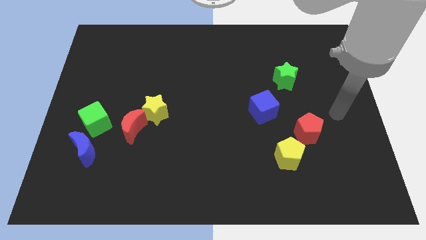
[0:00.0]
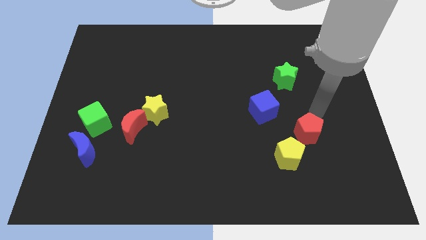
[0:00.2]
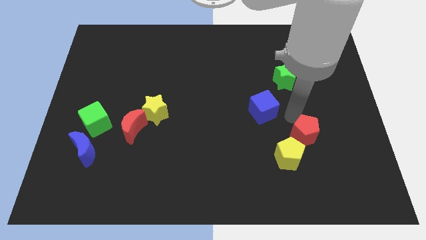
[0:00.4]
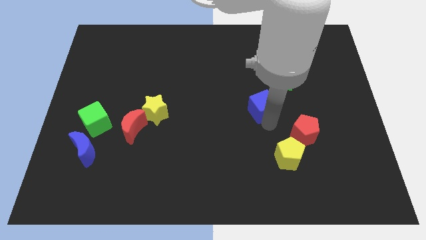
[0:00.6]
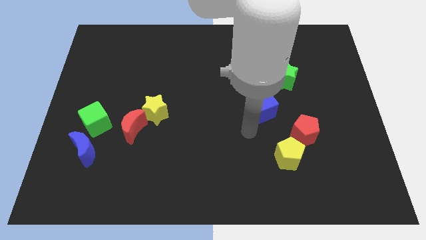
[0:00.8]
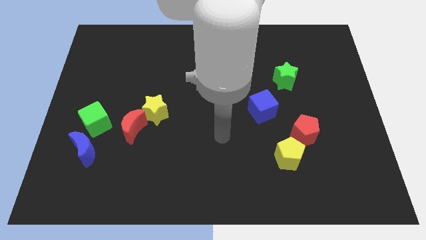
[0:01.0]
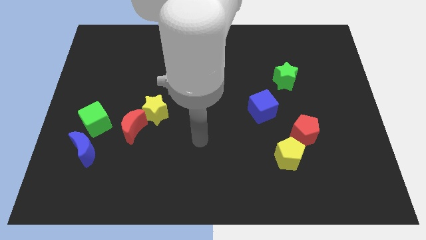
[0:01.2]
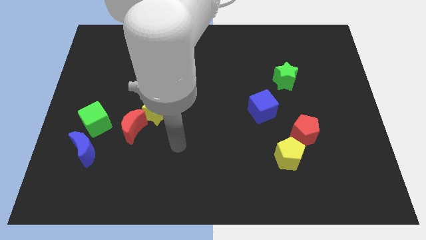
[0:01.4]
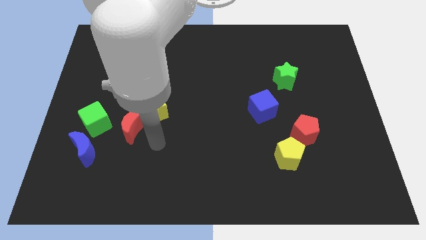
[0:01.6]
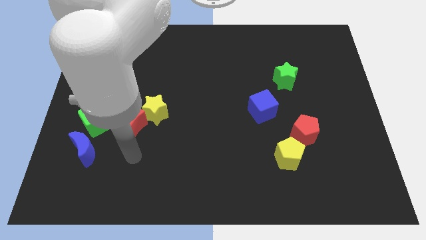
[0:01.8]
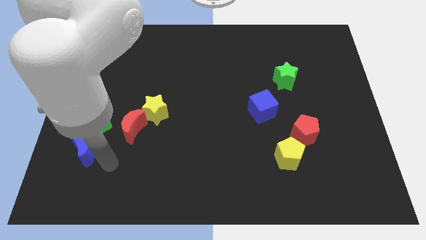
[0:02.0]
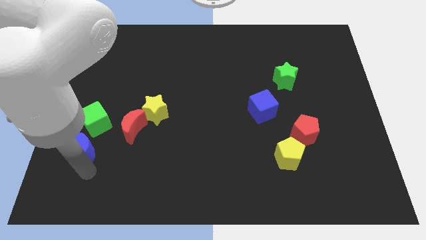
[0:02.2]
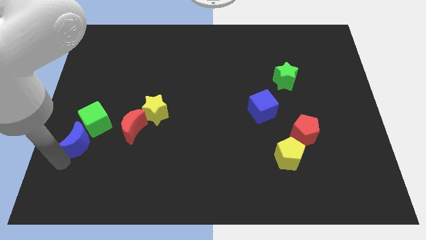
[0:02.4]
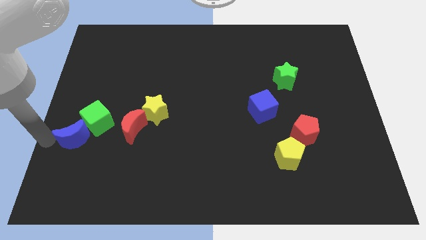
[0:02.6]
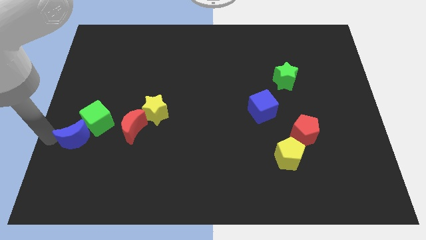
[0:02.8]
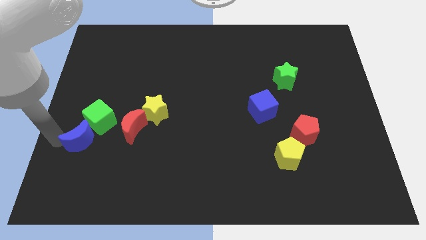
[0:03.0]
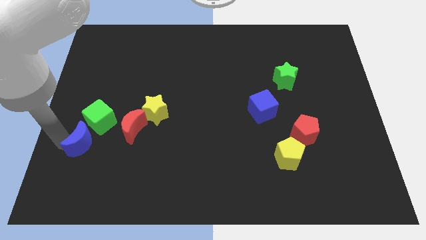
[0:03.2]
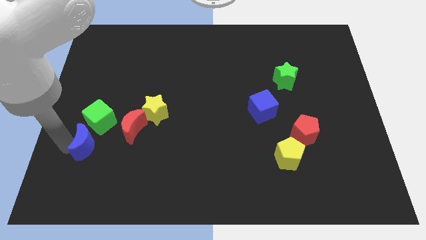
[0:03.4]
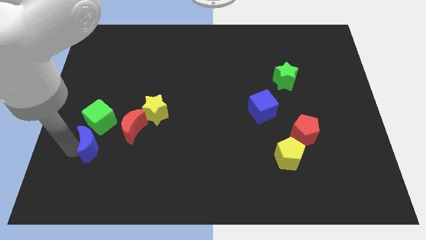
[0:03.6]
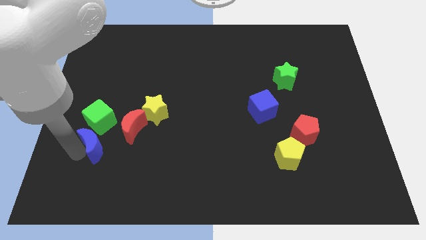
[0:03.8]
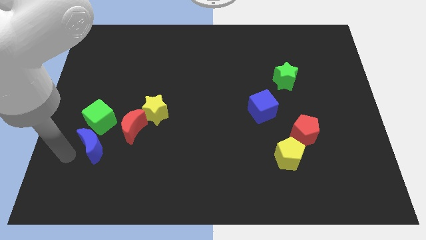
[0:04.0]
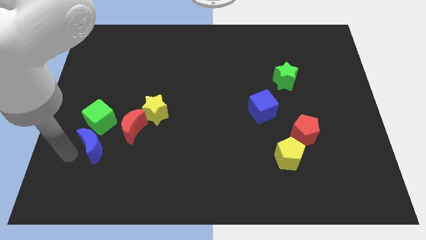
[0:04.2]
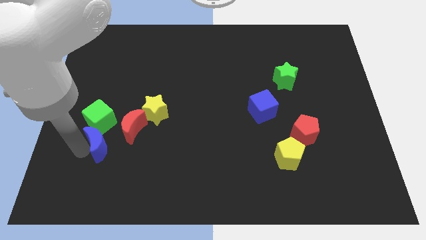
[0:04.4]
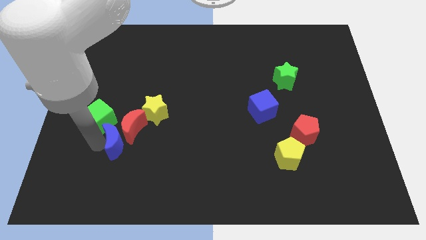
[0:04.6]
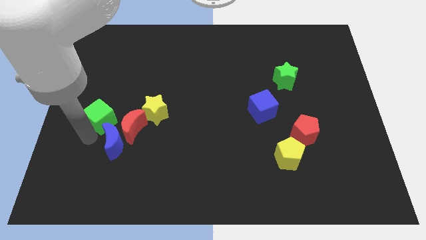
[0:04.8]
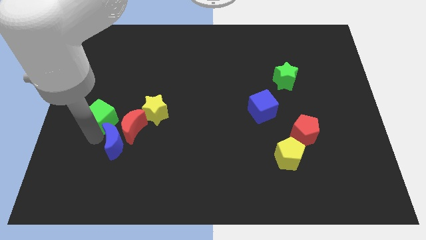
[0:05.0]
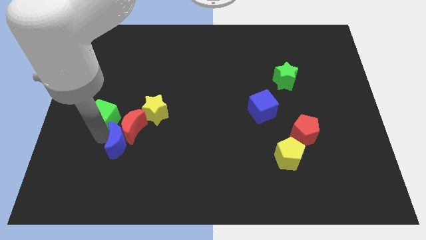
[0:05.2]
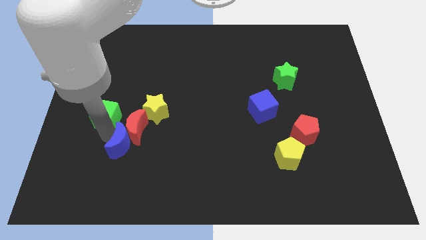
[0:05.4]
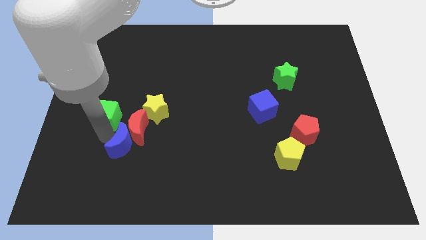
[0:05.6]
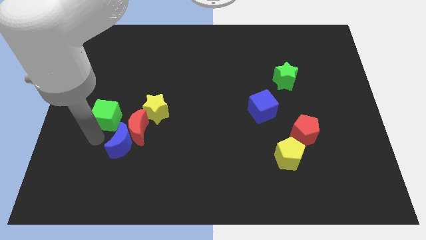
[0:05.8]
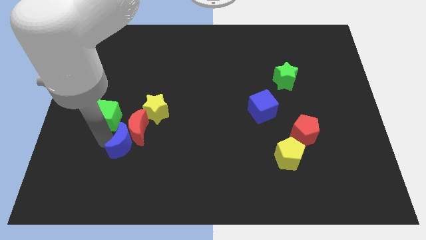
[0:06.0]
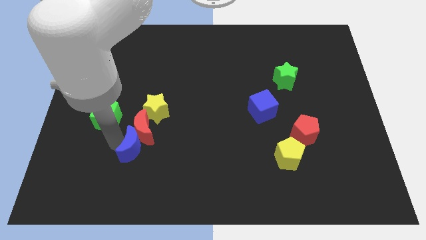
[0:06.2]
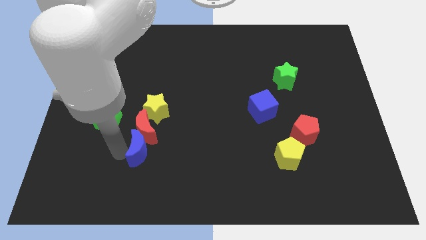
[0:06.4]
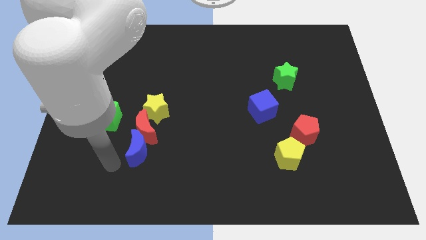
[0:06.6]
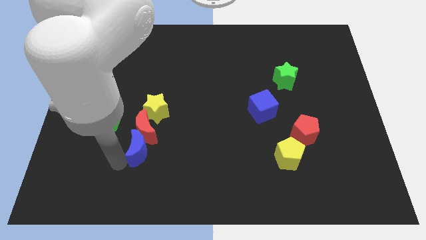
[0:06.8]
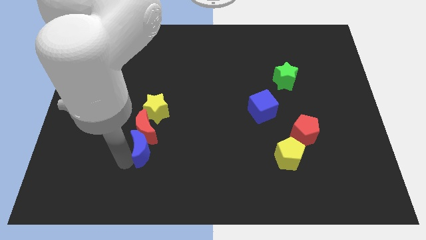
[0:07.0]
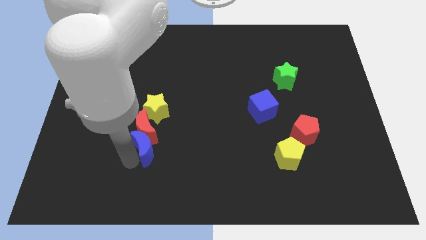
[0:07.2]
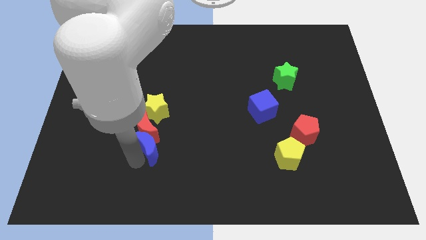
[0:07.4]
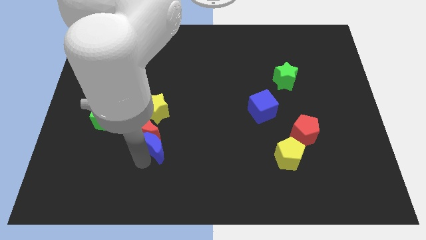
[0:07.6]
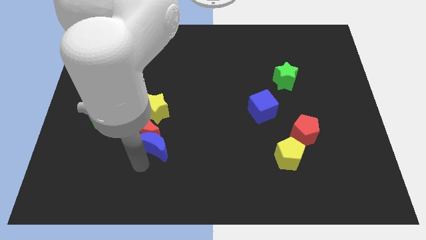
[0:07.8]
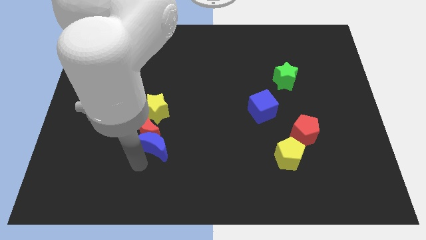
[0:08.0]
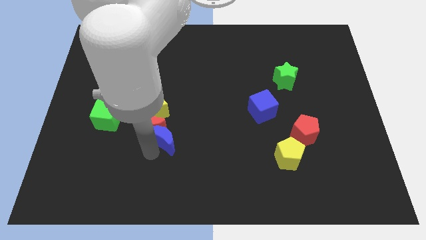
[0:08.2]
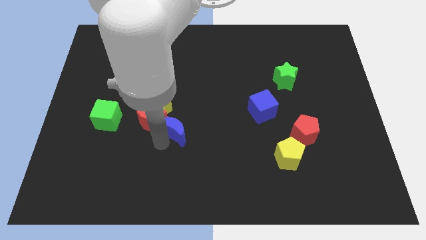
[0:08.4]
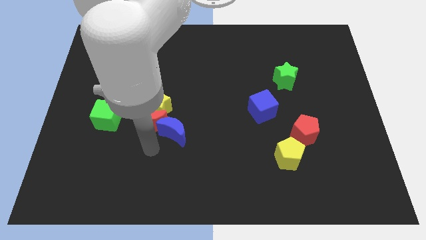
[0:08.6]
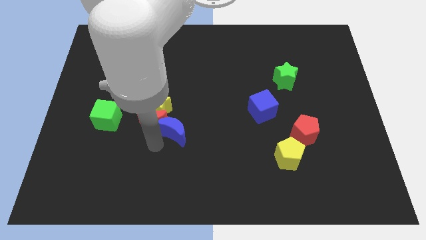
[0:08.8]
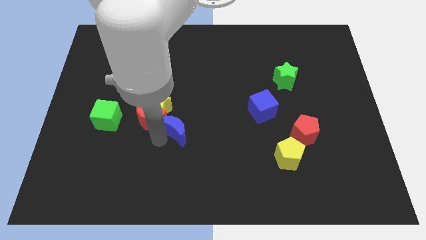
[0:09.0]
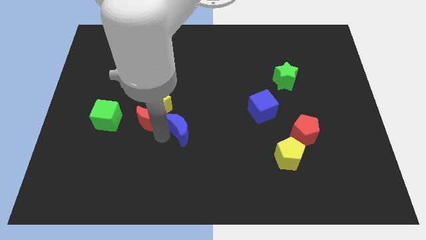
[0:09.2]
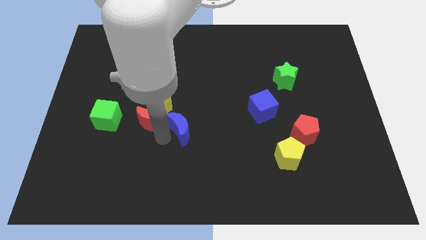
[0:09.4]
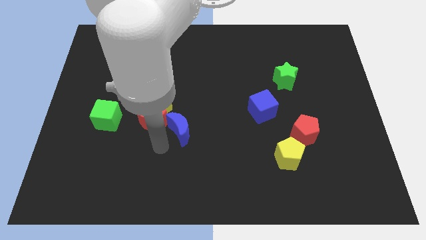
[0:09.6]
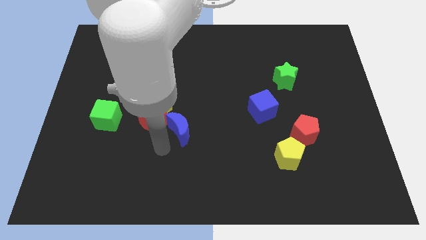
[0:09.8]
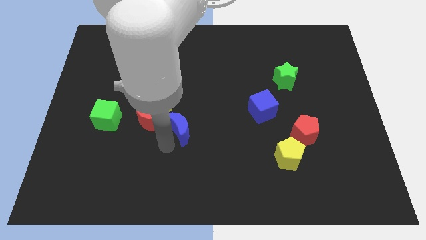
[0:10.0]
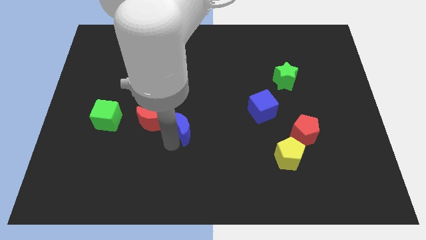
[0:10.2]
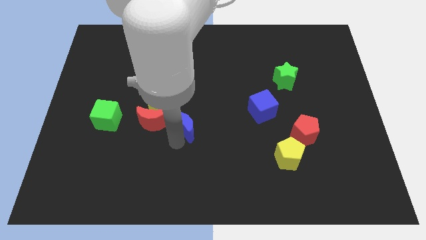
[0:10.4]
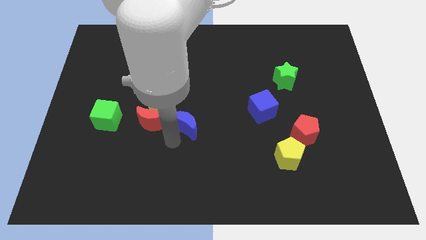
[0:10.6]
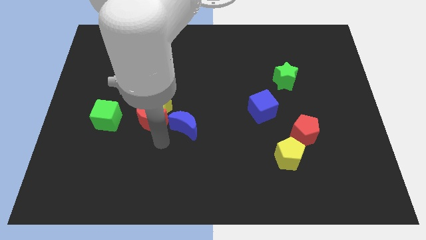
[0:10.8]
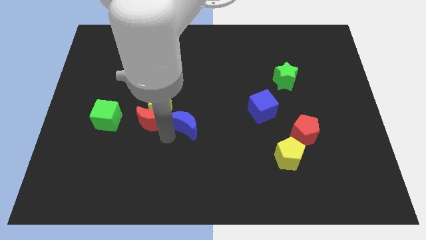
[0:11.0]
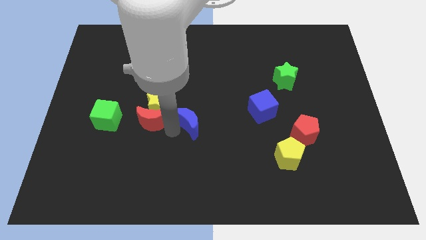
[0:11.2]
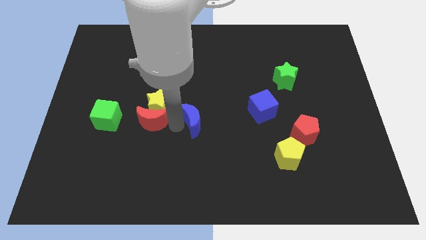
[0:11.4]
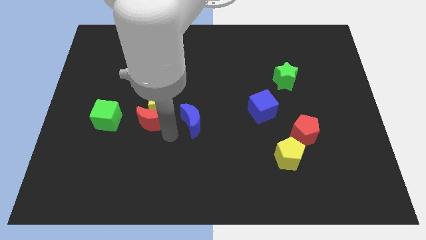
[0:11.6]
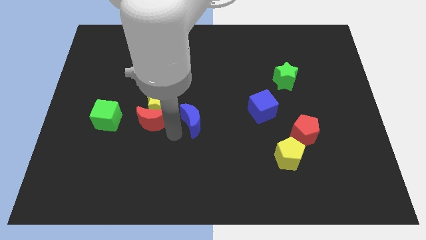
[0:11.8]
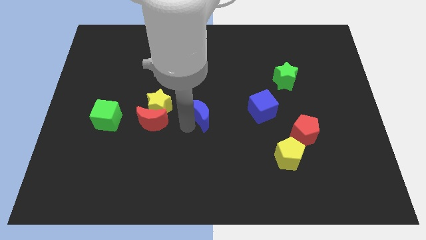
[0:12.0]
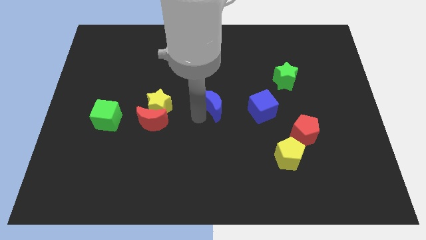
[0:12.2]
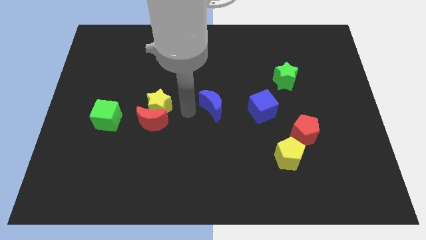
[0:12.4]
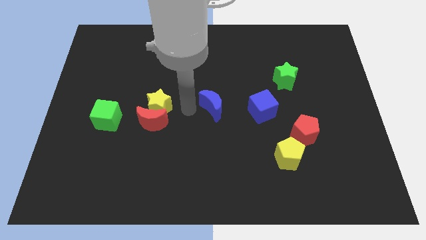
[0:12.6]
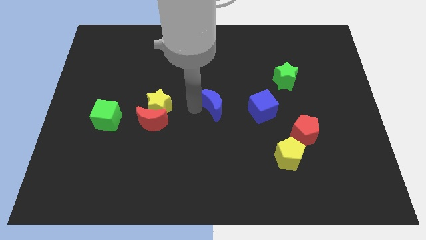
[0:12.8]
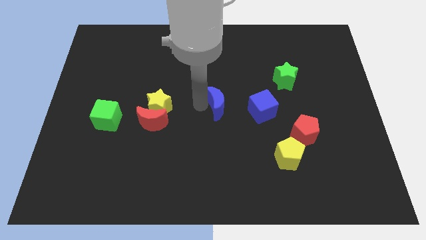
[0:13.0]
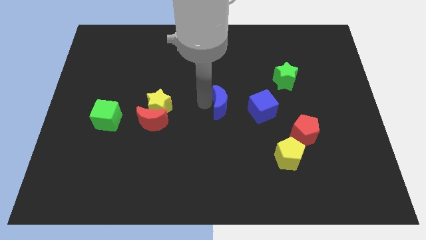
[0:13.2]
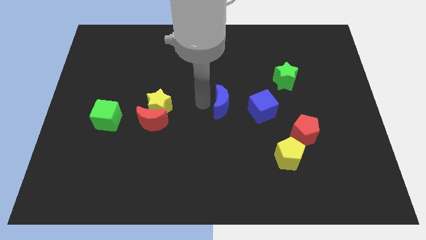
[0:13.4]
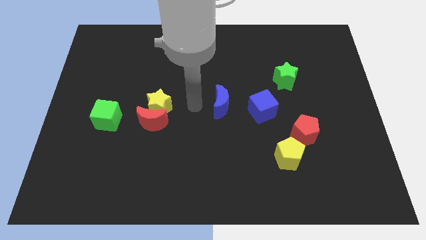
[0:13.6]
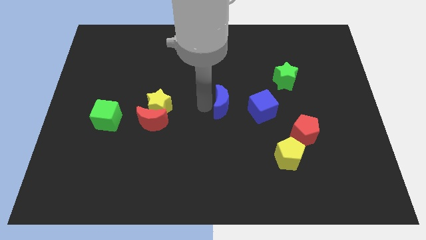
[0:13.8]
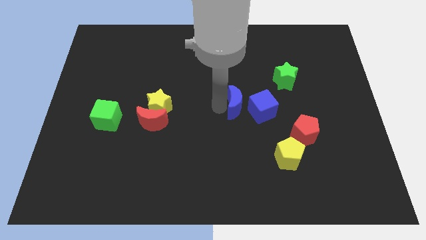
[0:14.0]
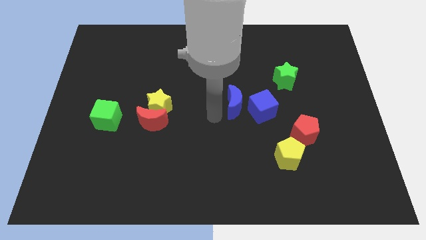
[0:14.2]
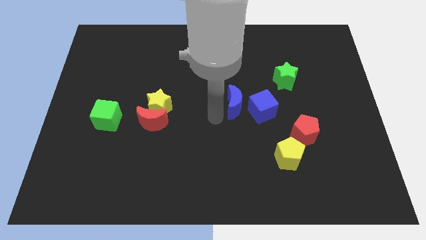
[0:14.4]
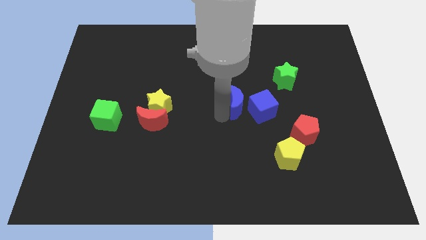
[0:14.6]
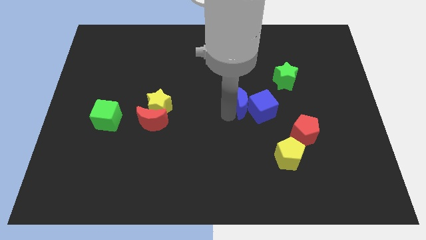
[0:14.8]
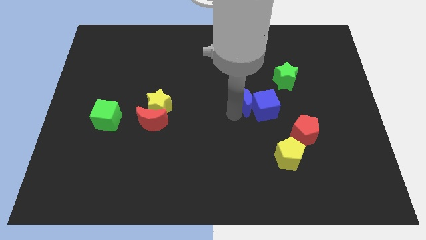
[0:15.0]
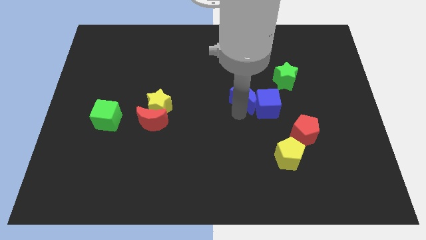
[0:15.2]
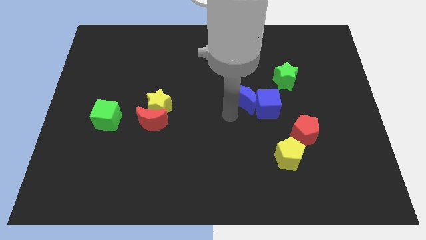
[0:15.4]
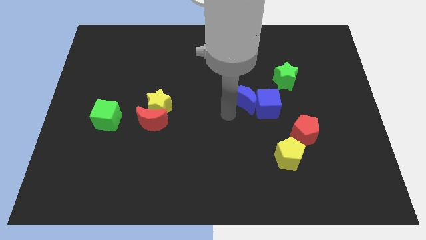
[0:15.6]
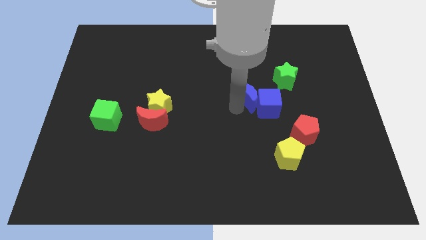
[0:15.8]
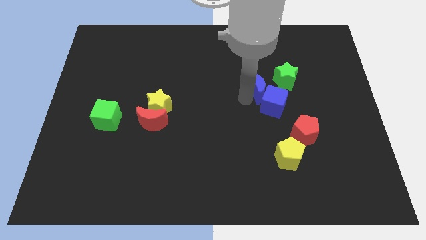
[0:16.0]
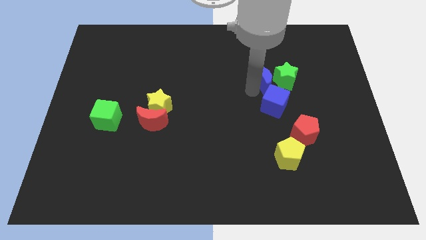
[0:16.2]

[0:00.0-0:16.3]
move the blue moon next to the green star
